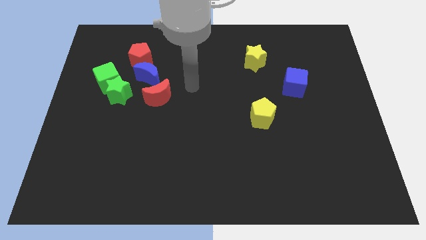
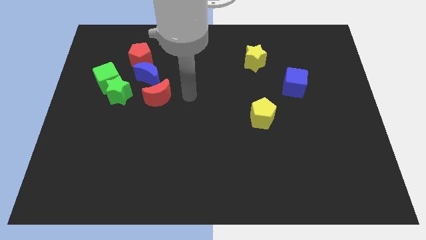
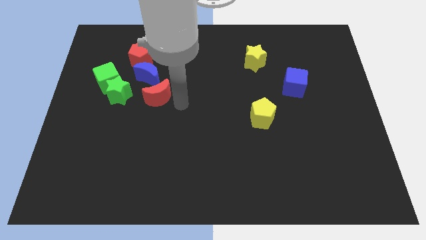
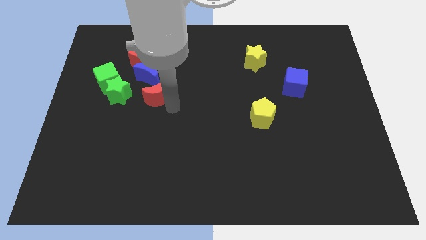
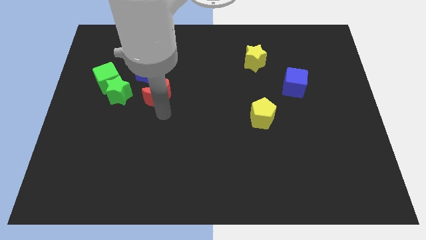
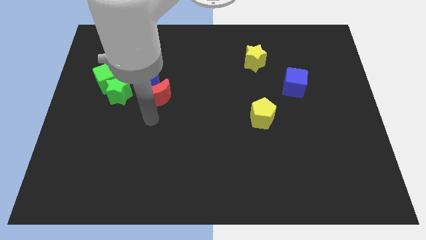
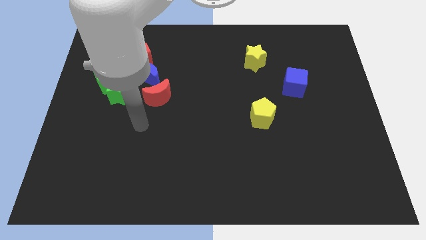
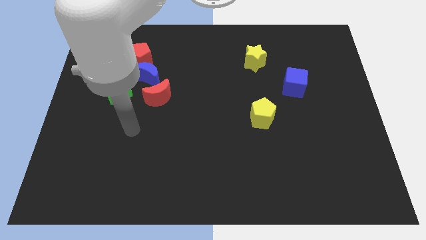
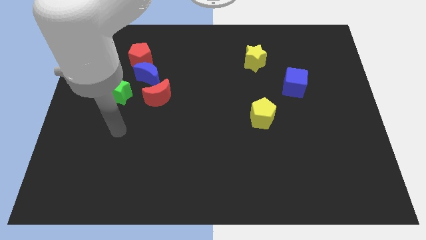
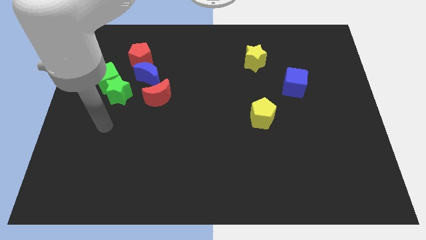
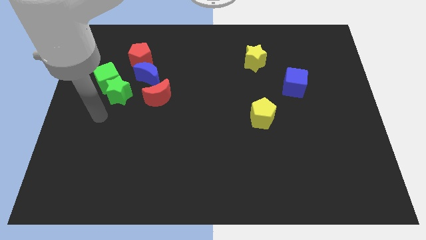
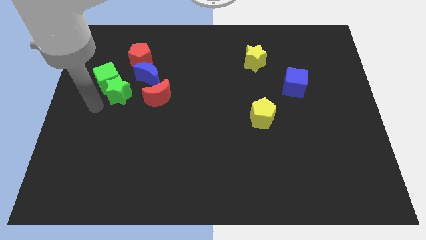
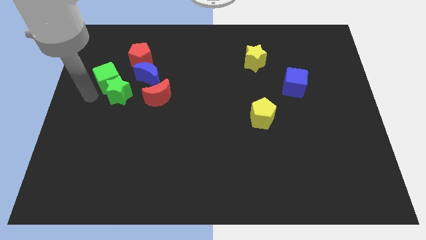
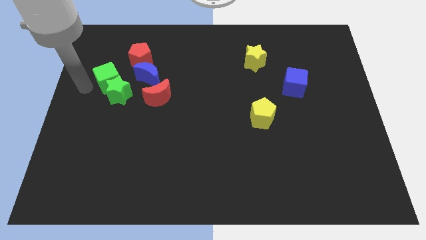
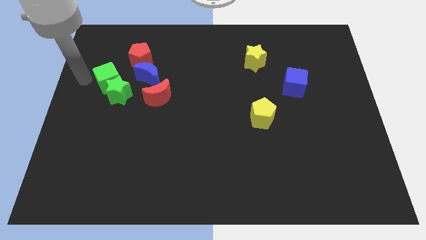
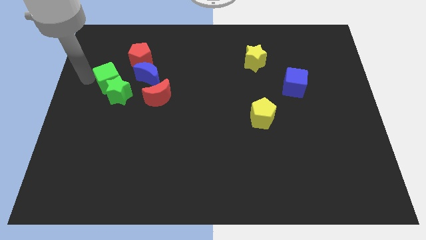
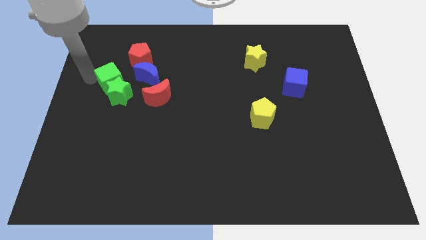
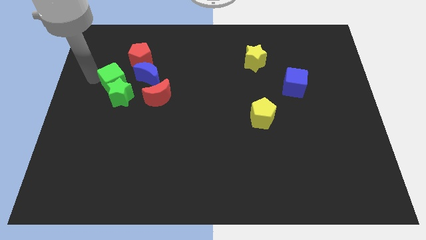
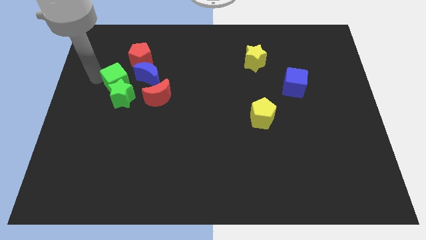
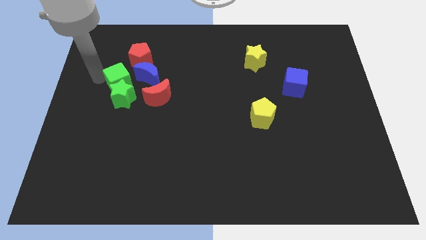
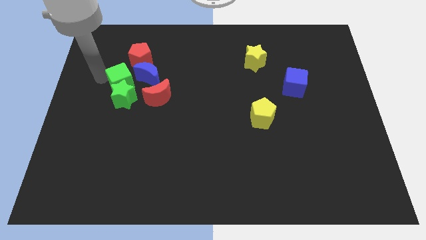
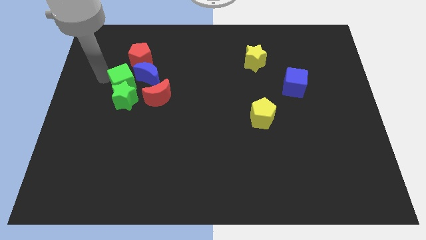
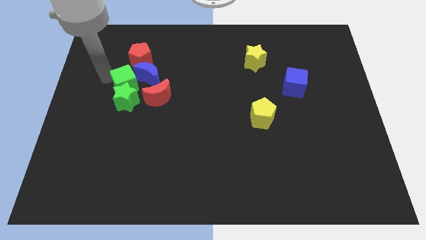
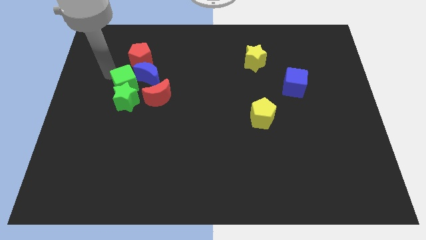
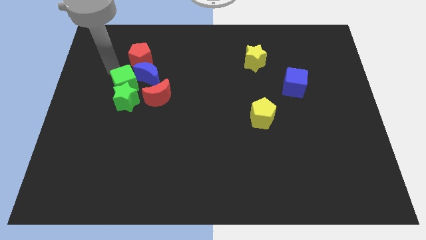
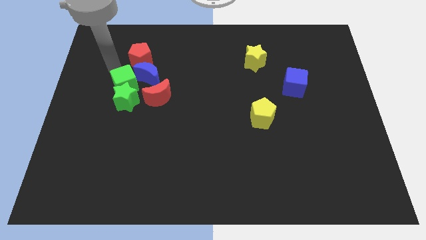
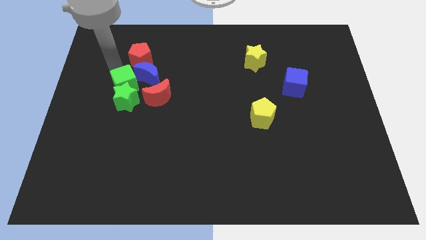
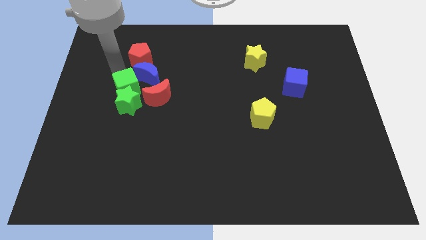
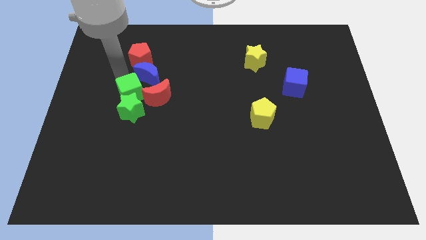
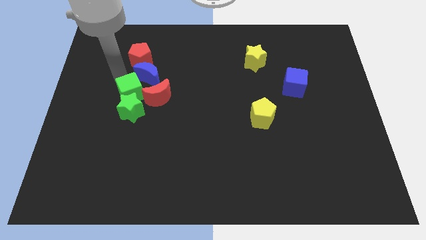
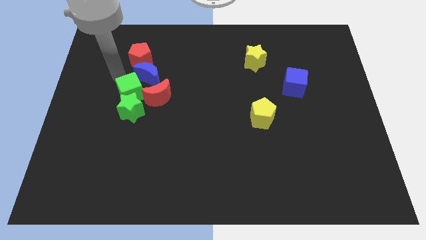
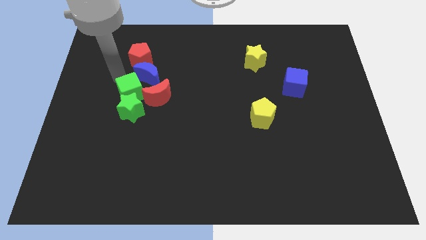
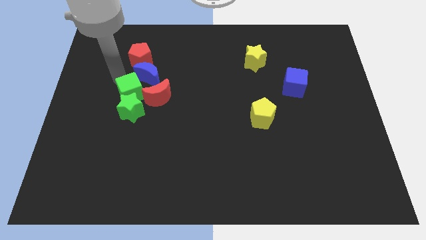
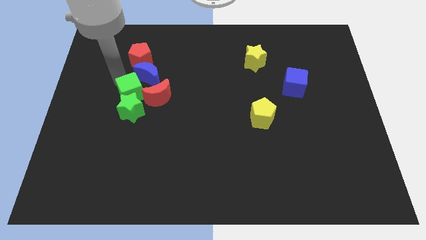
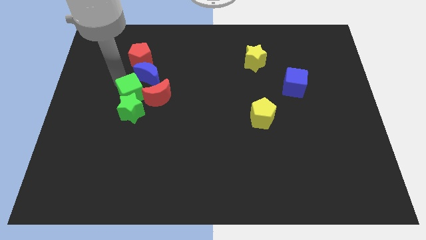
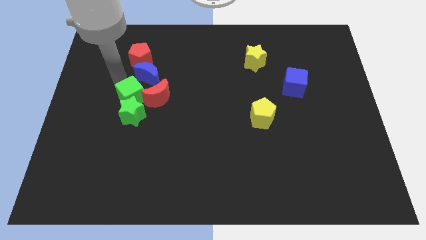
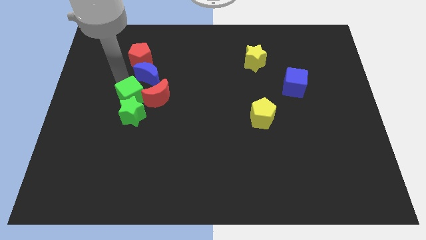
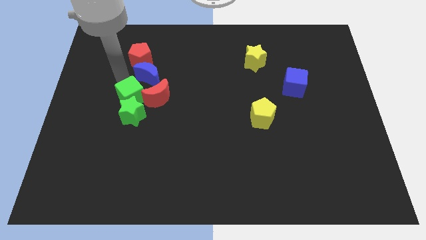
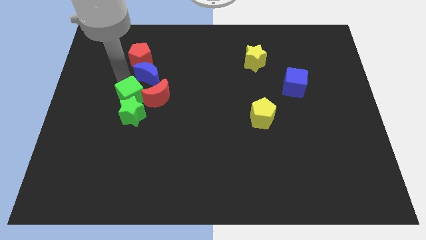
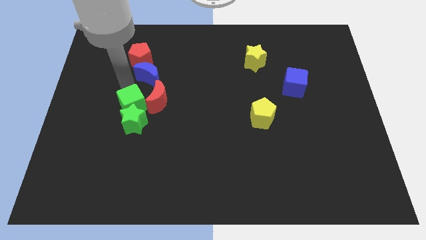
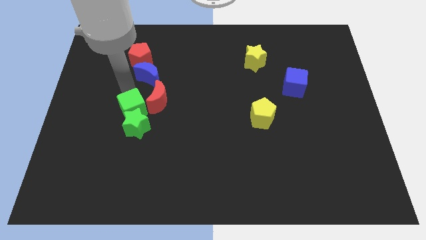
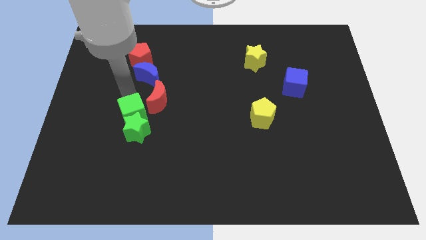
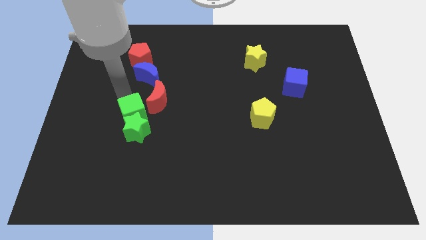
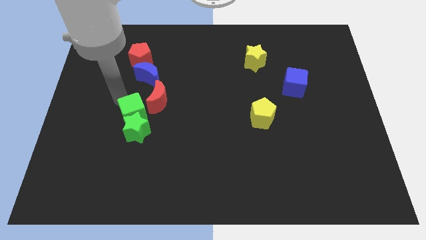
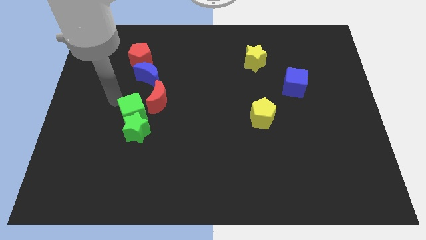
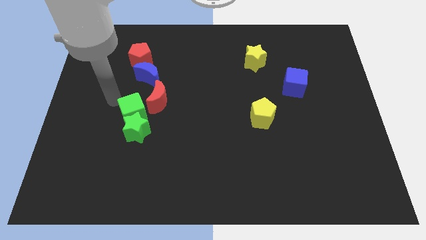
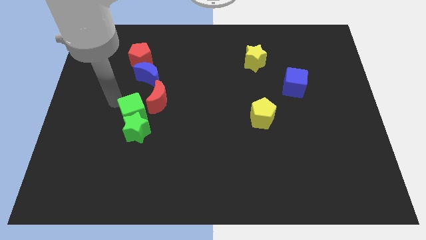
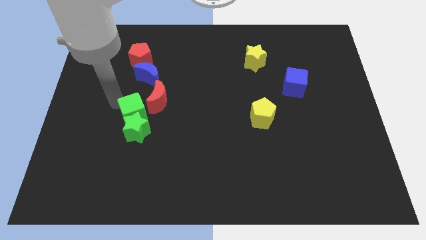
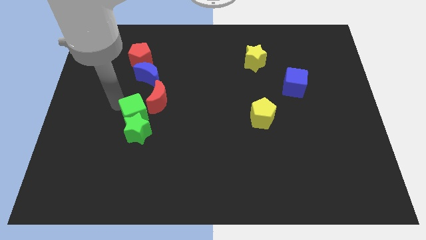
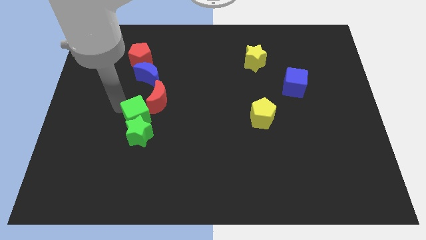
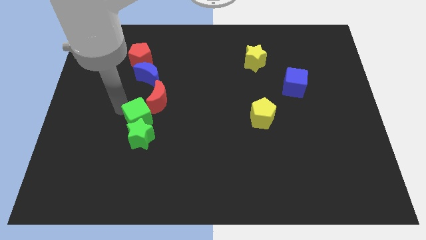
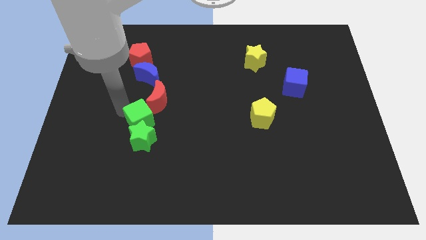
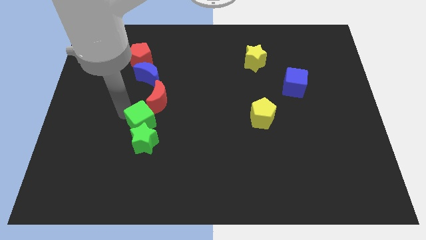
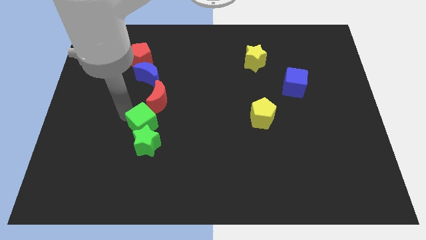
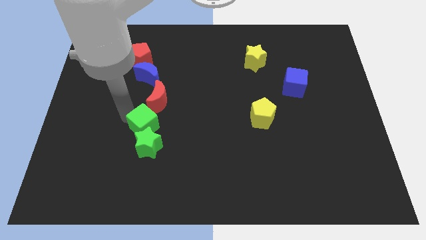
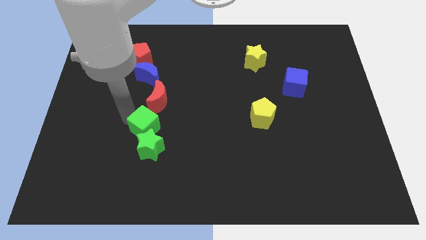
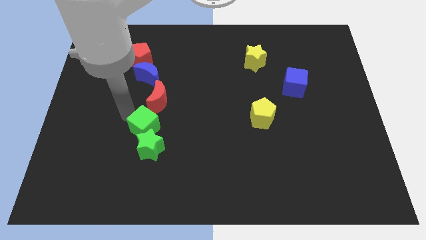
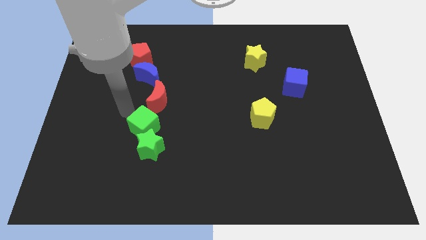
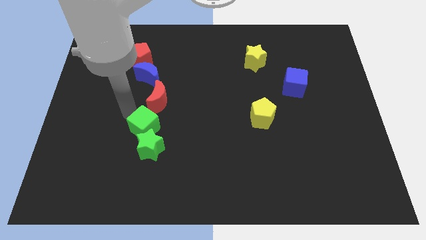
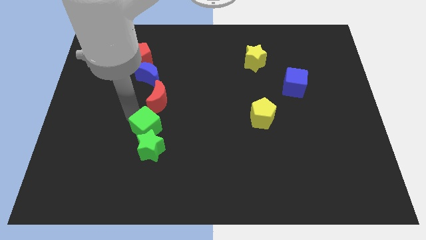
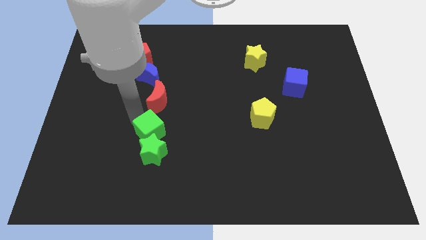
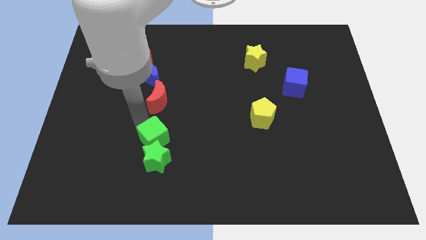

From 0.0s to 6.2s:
push the green cube downwards and right diagonally

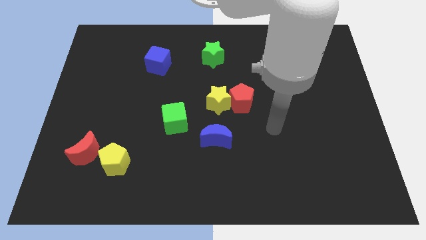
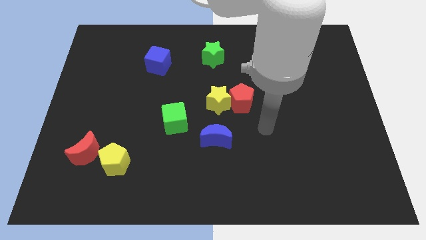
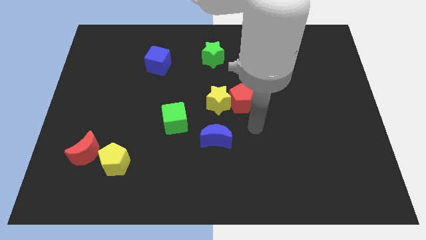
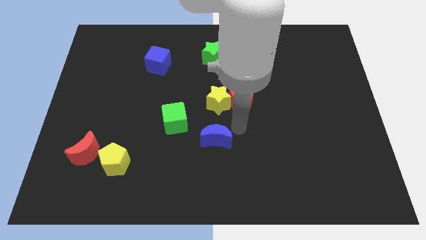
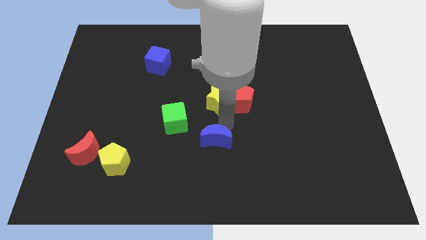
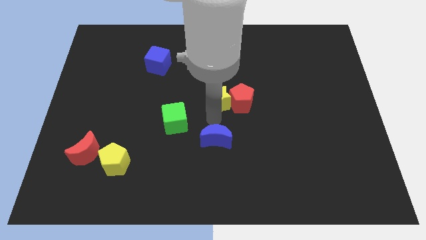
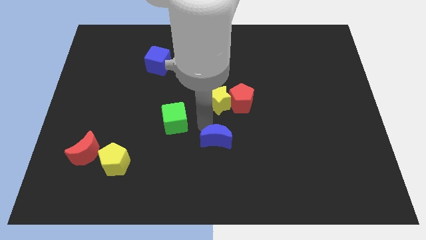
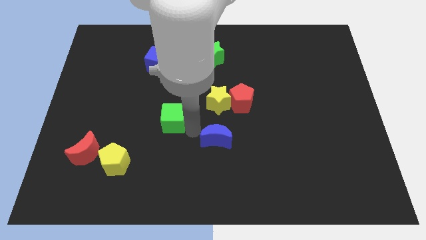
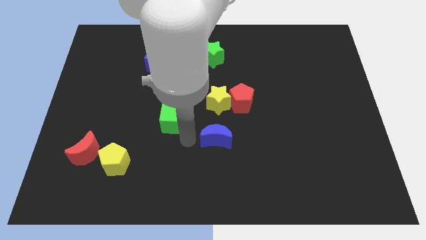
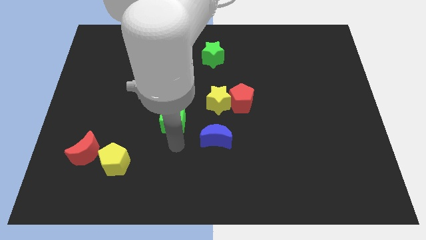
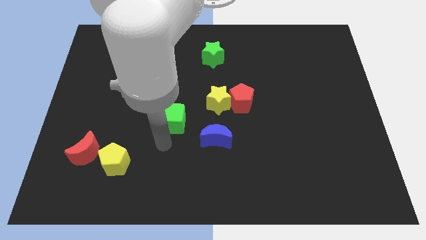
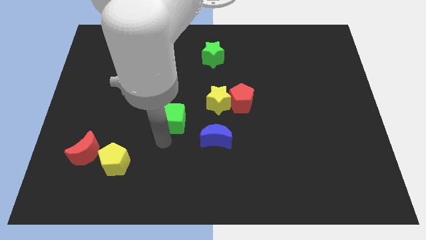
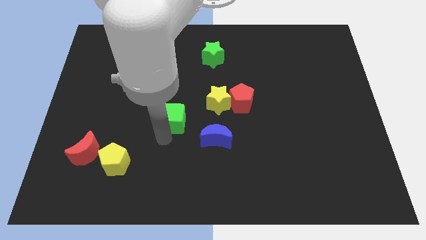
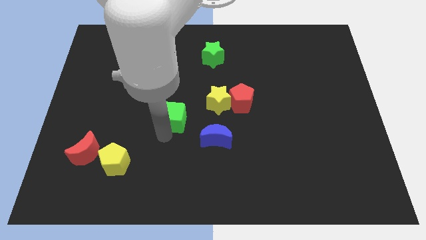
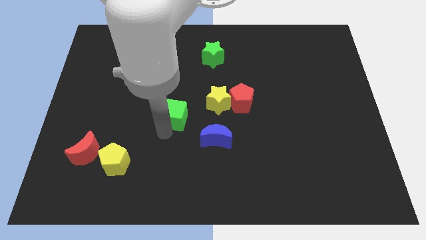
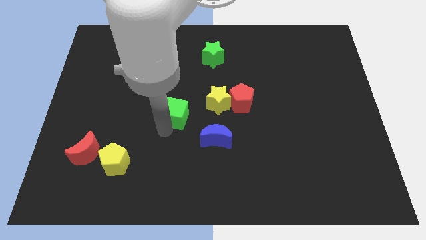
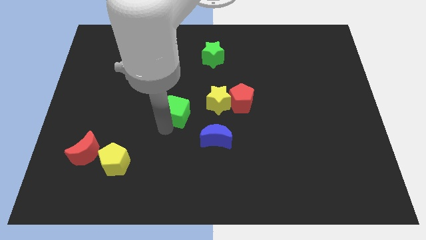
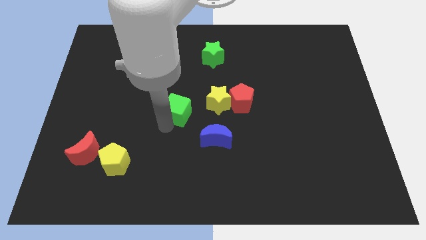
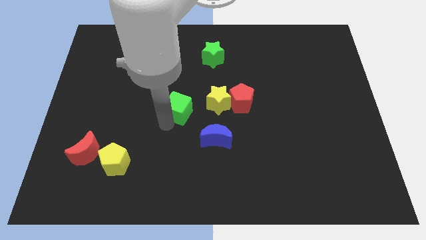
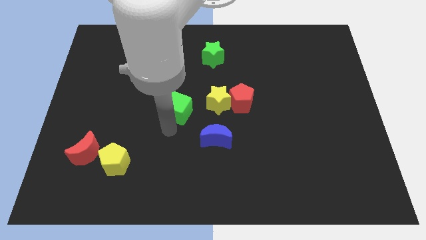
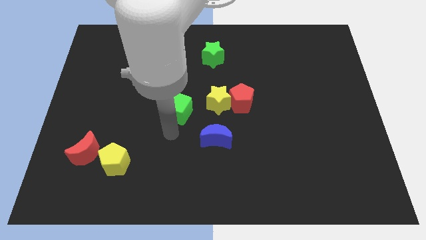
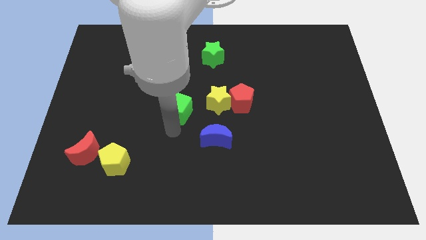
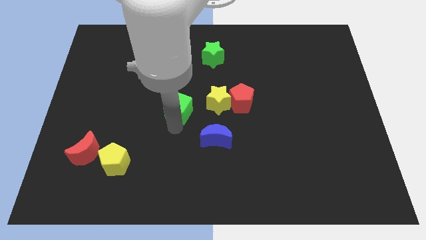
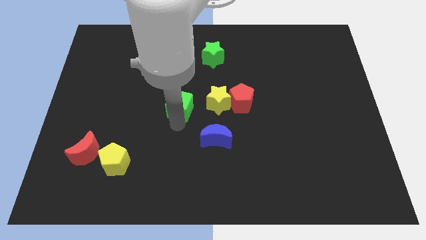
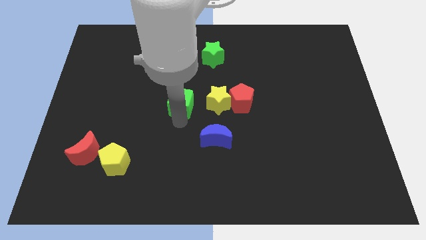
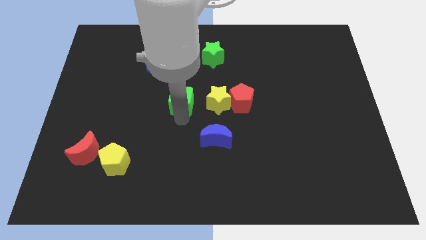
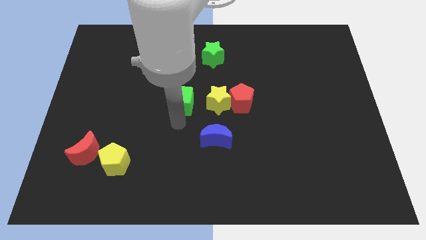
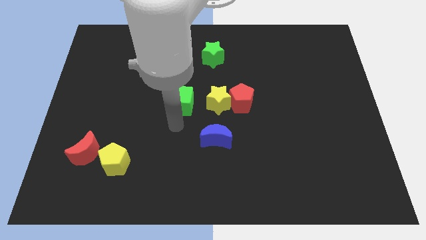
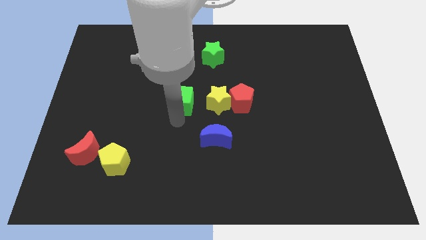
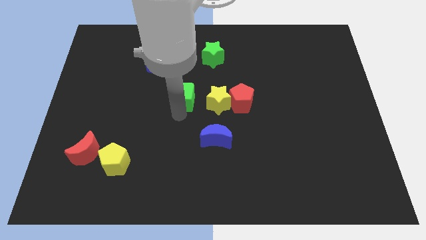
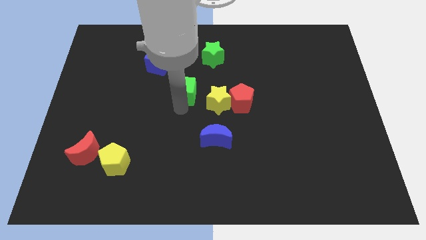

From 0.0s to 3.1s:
slightly slide the green cube upwards
